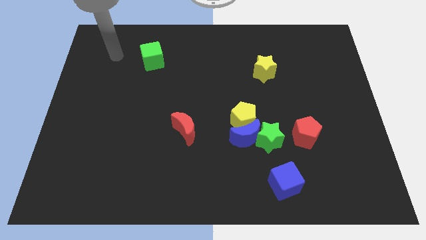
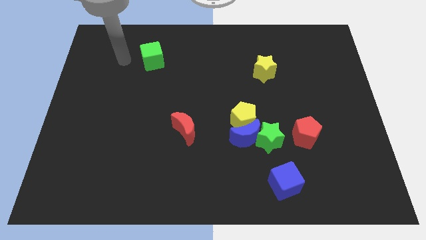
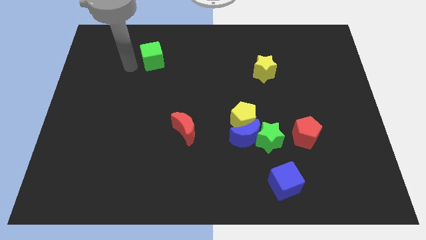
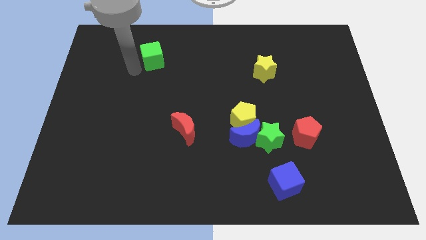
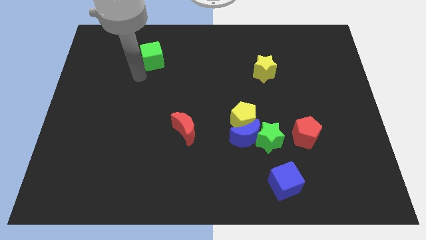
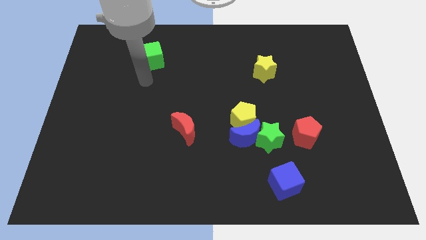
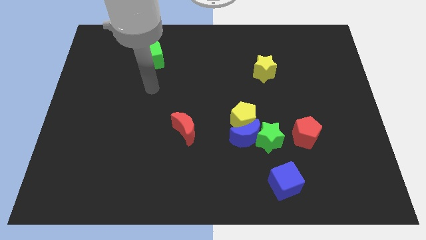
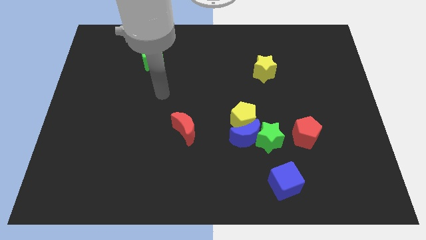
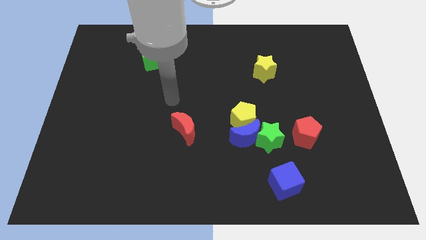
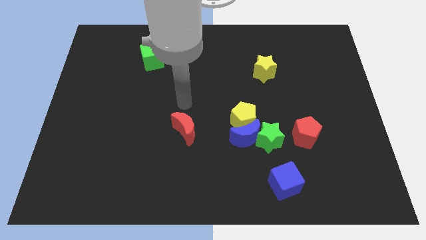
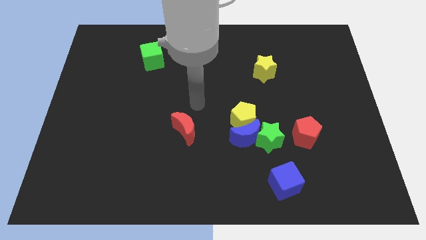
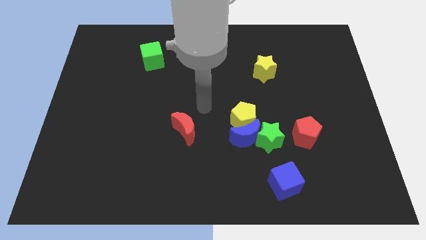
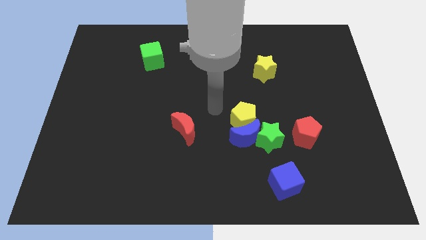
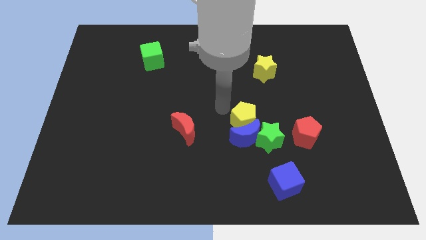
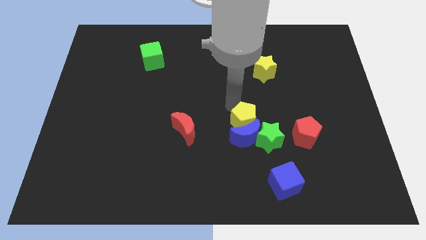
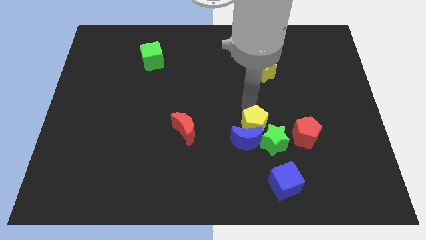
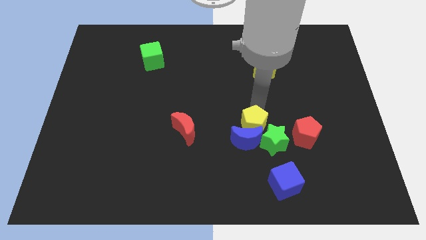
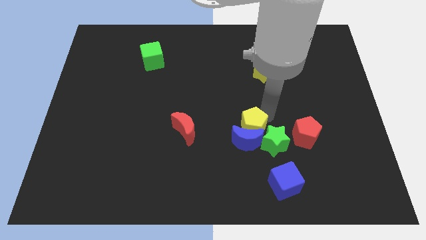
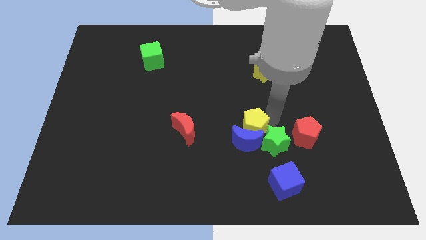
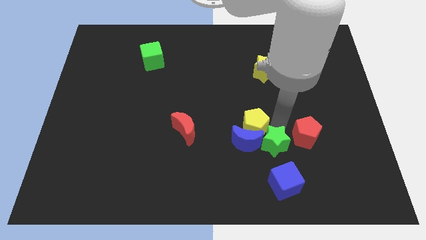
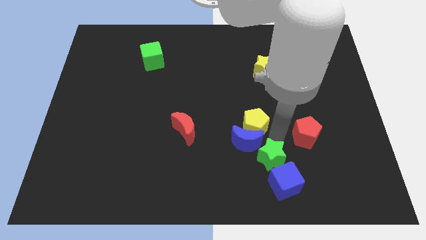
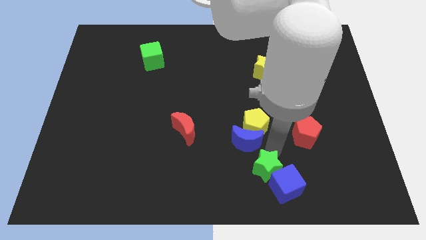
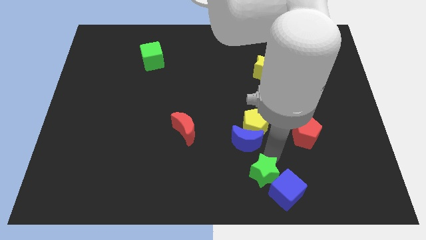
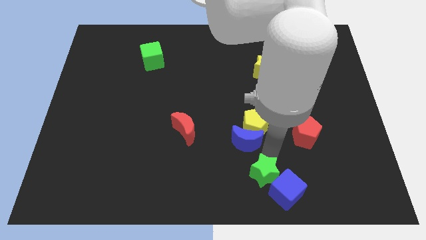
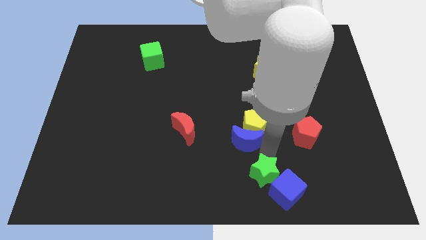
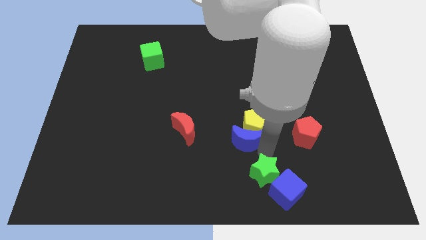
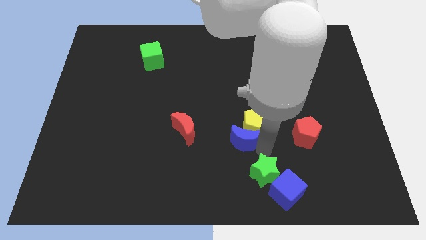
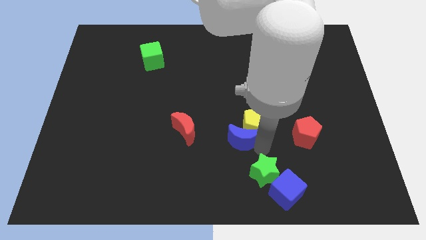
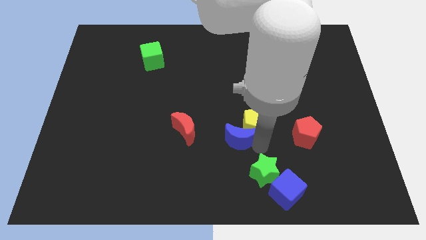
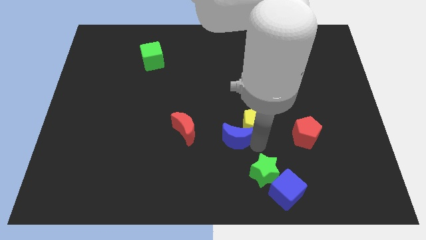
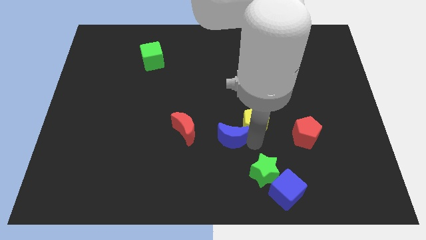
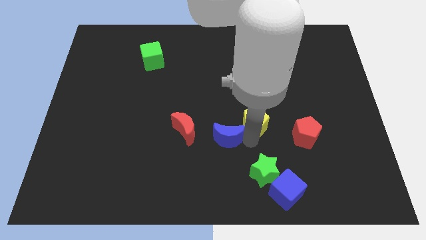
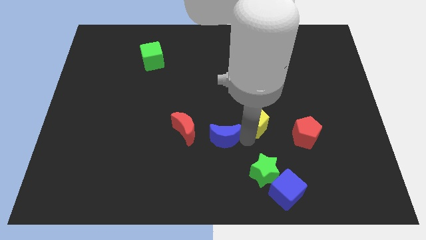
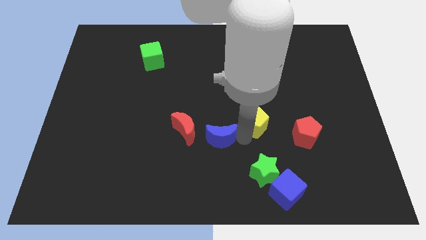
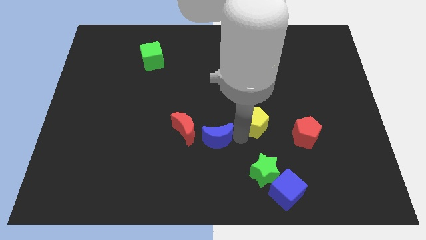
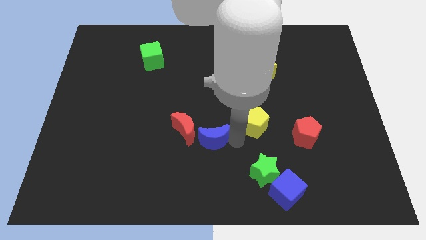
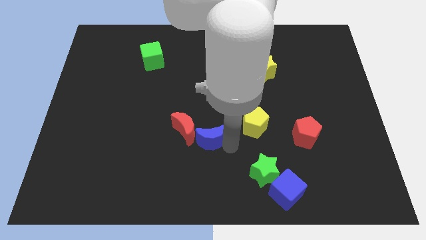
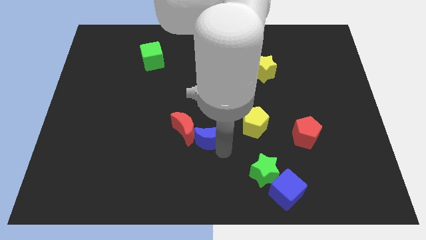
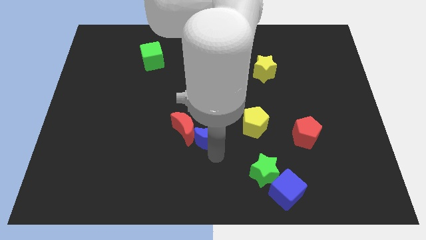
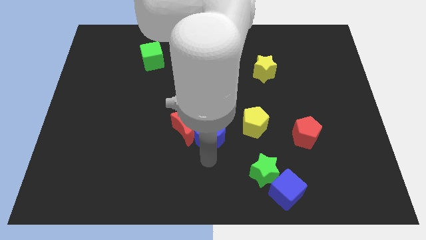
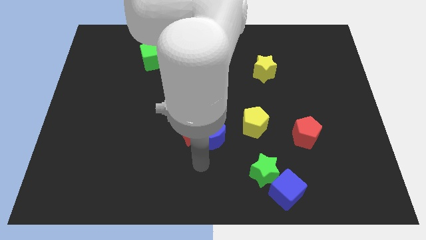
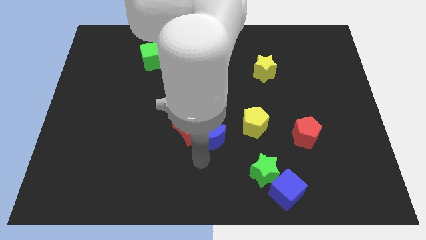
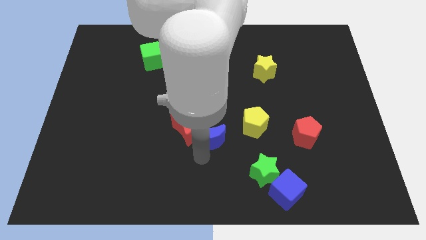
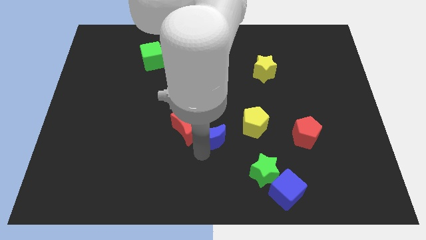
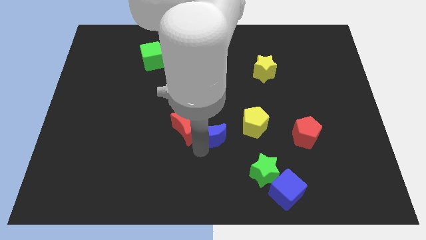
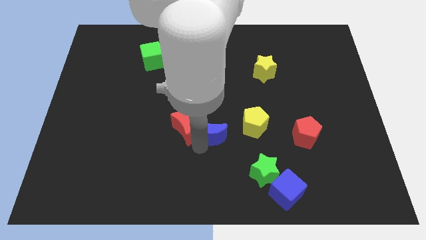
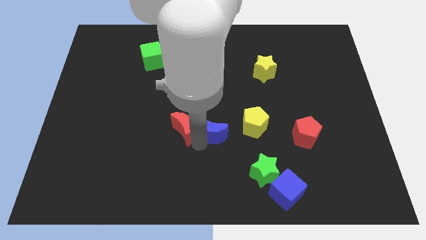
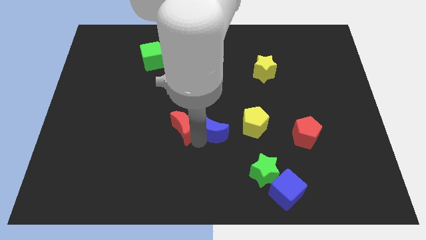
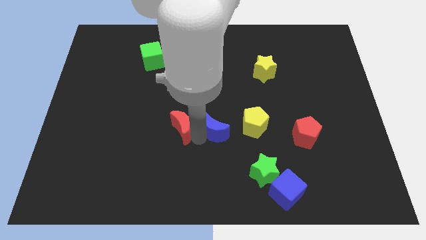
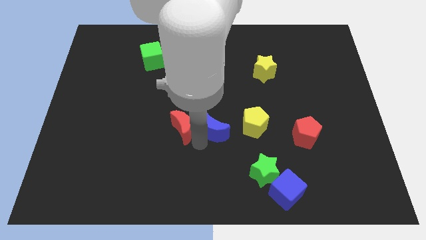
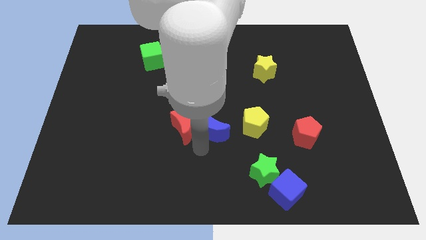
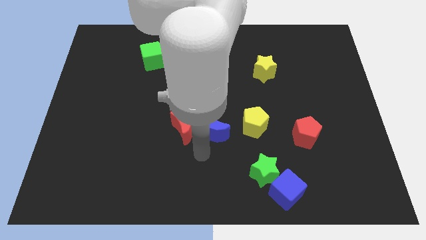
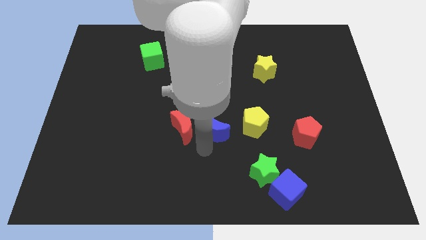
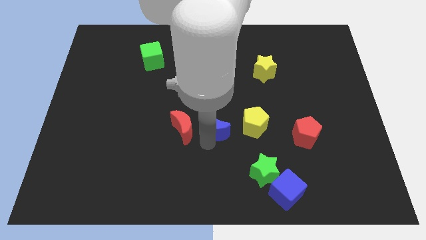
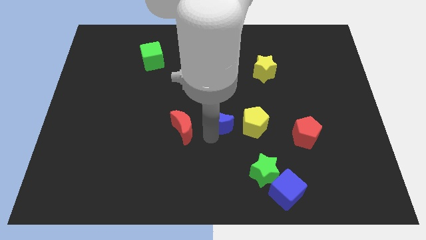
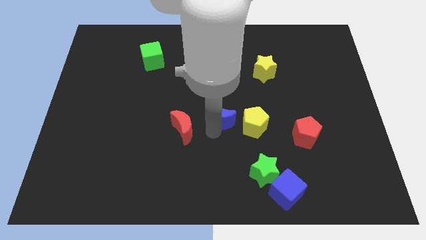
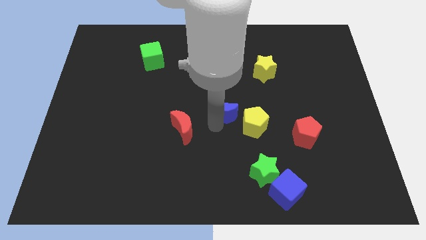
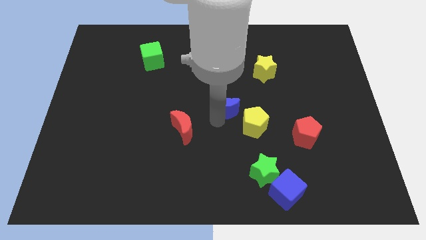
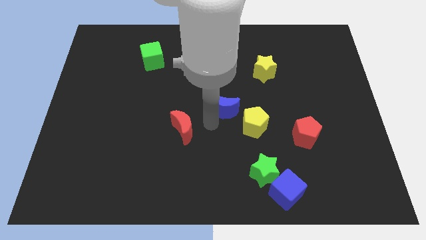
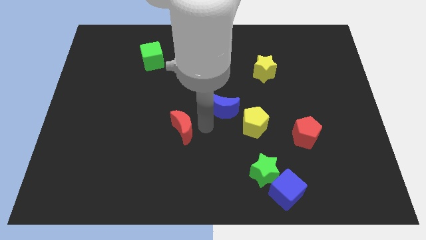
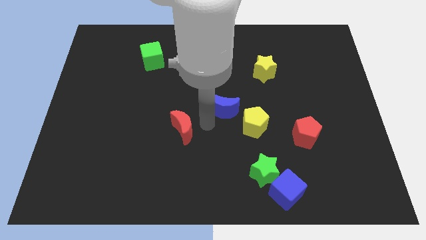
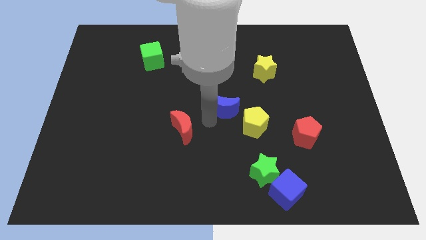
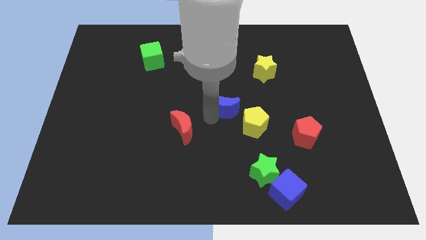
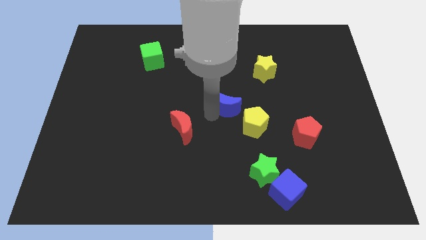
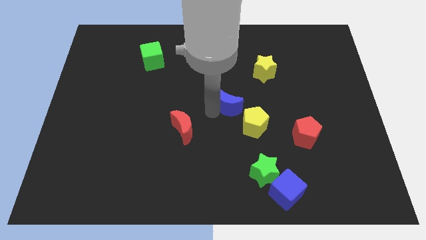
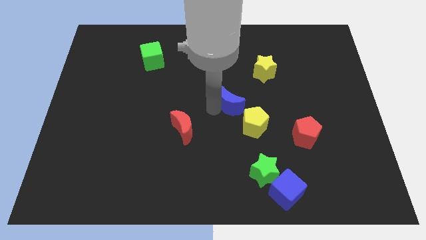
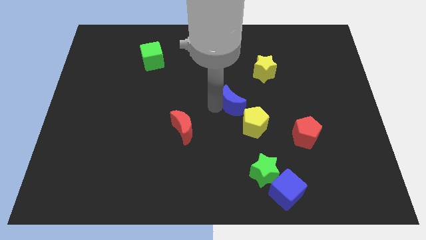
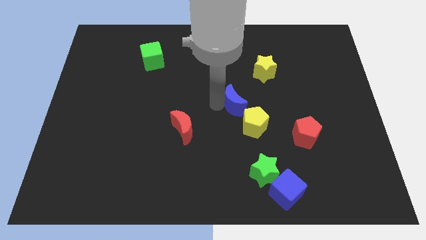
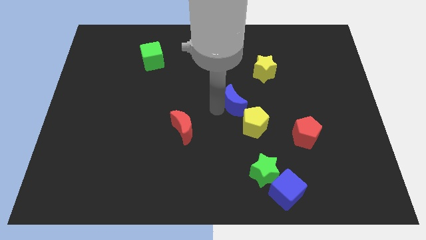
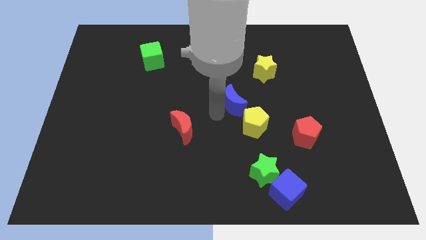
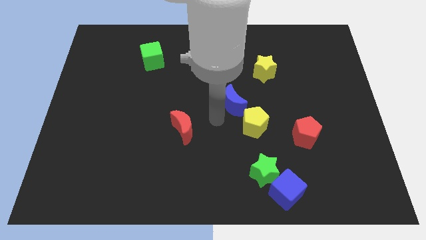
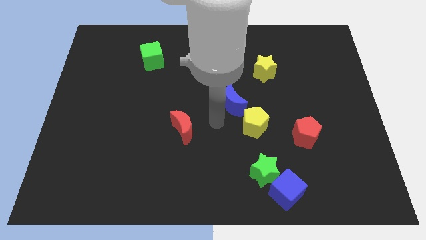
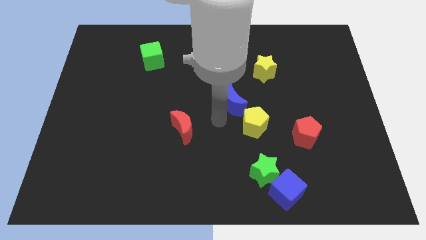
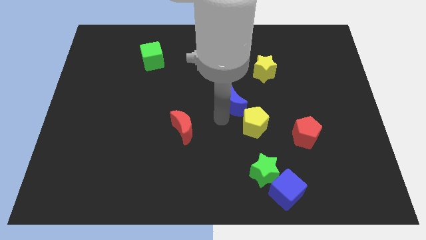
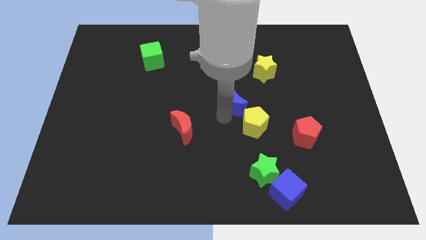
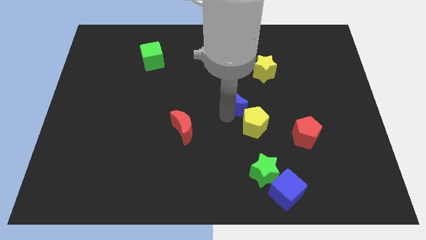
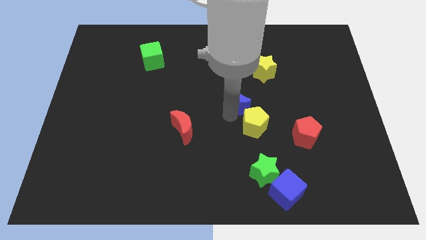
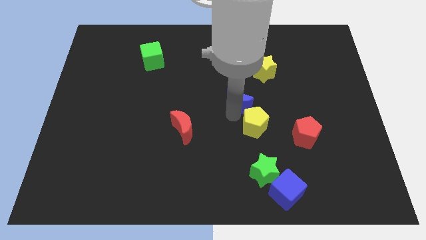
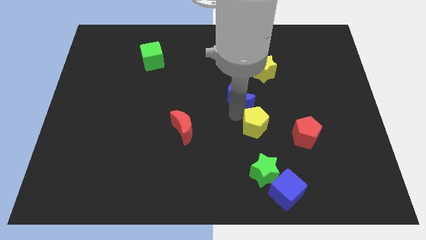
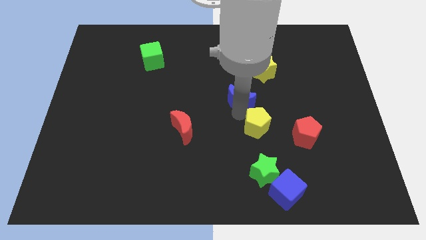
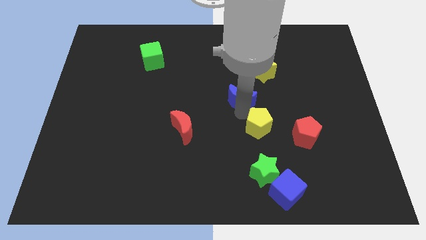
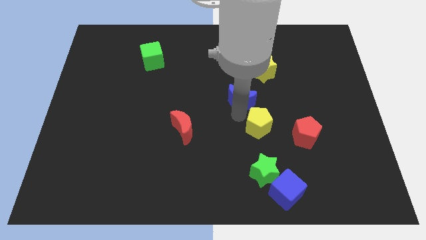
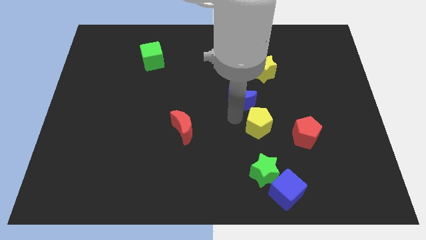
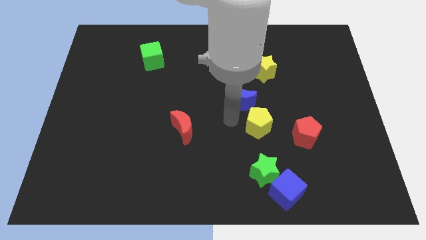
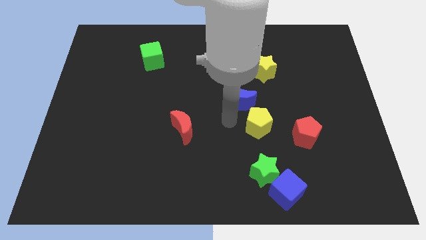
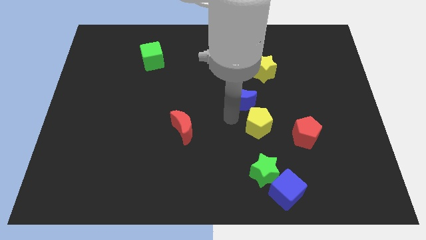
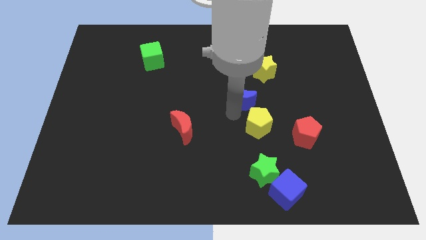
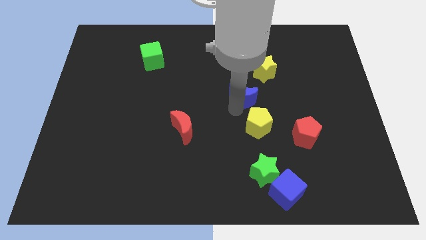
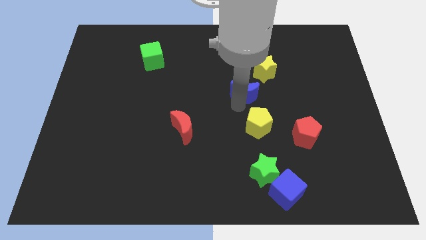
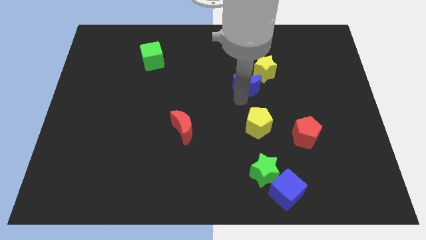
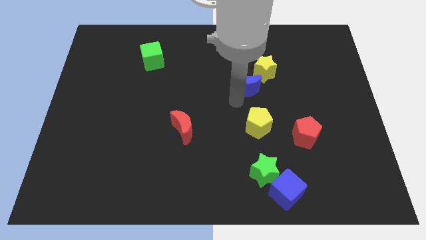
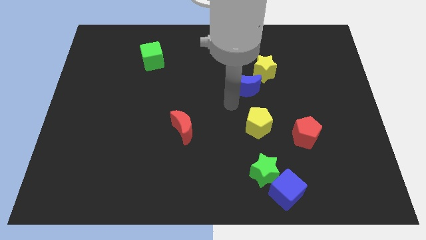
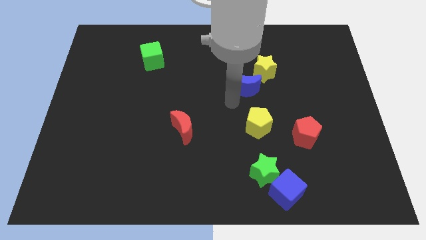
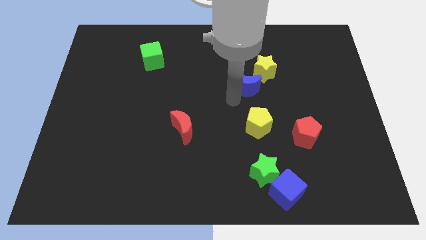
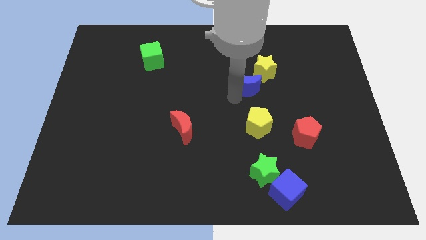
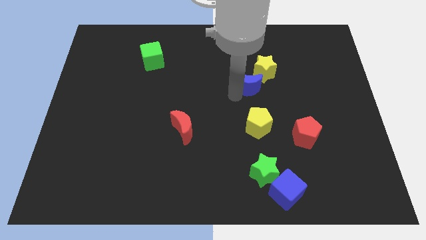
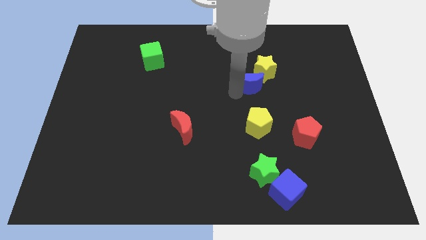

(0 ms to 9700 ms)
push the blue moon towards the yellow star
